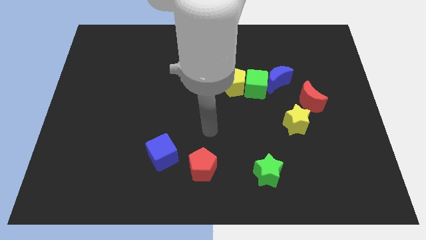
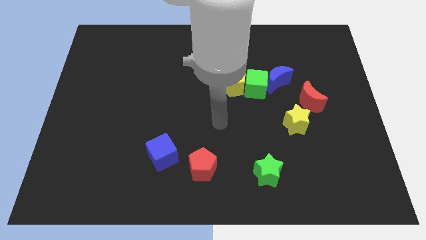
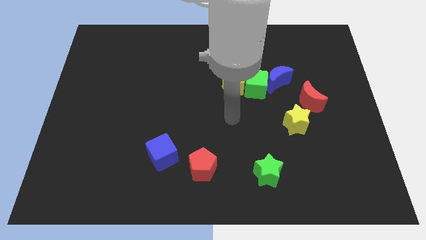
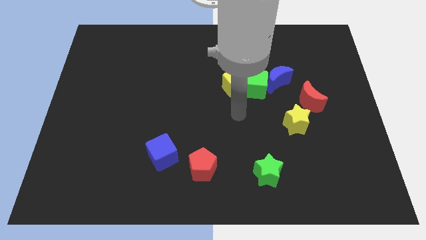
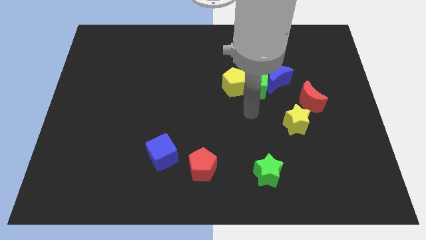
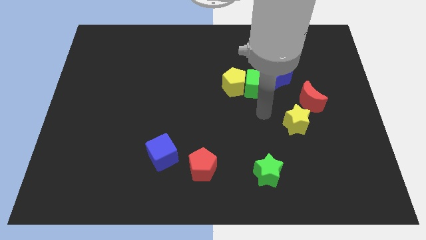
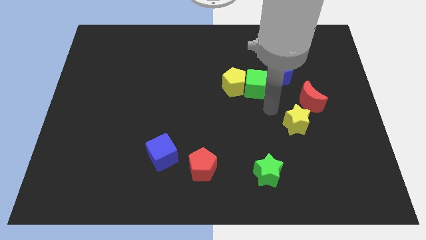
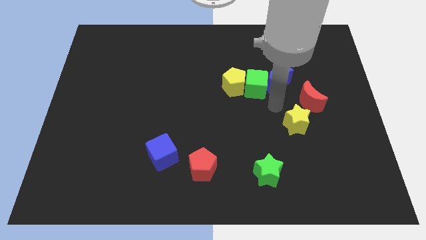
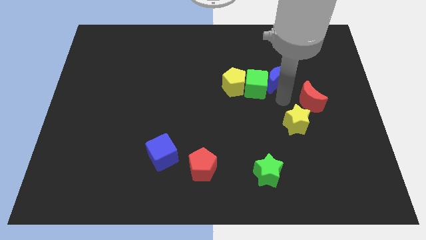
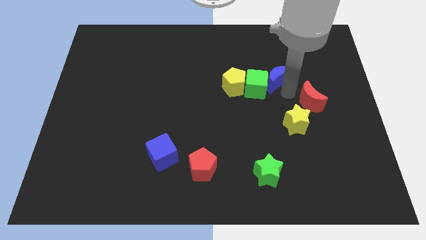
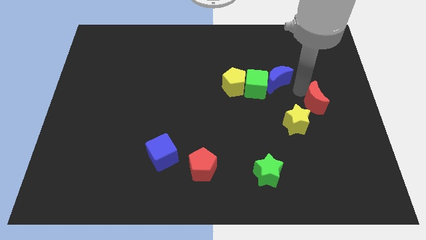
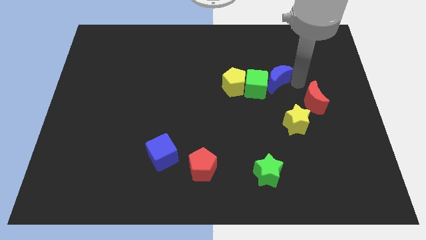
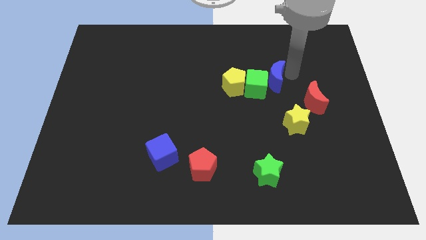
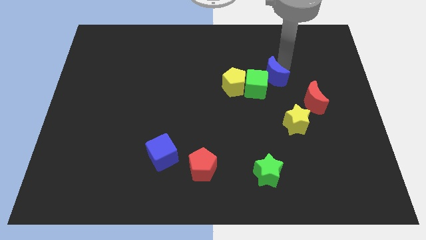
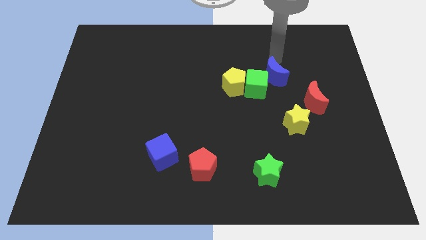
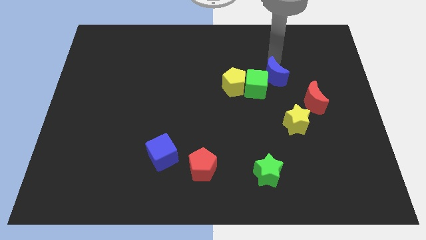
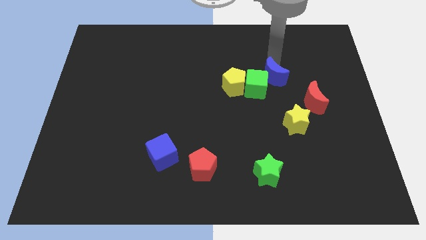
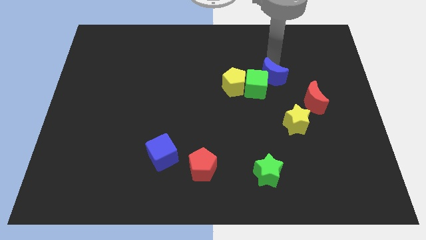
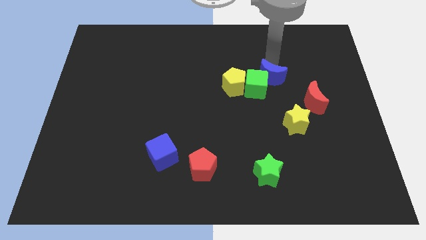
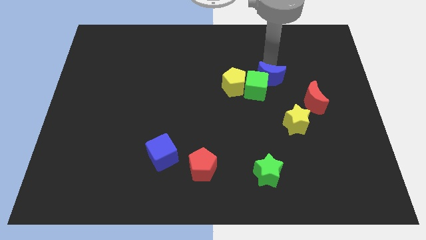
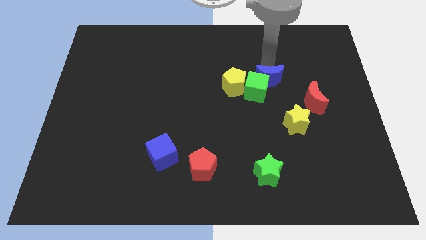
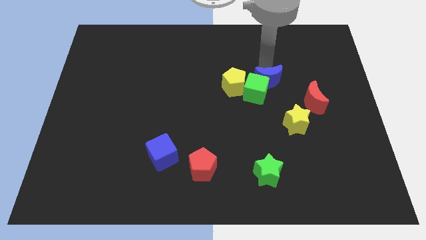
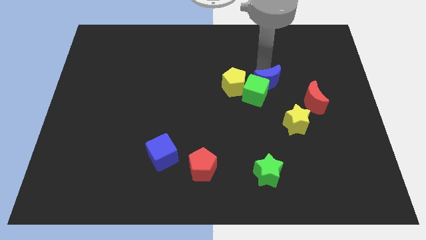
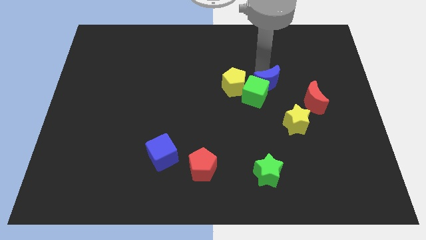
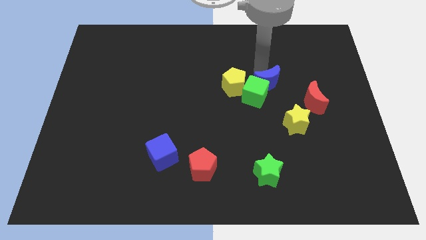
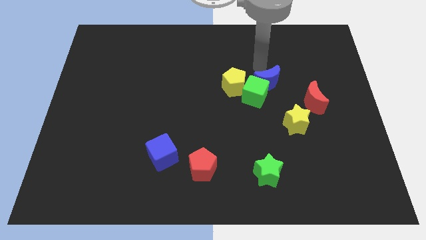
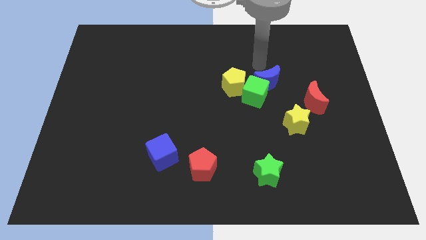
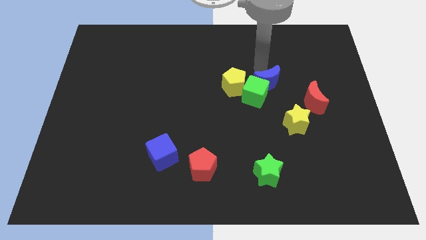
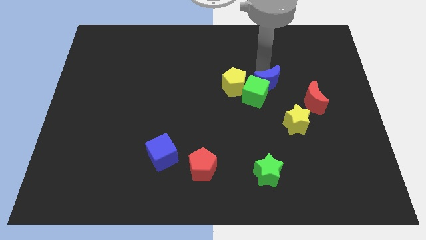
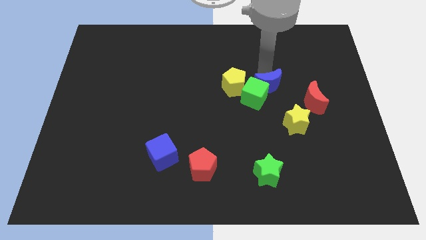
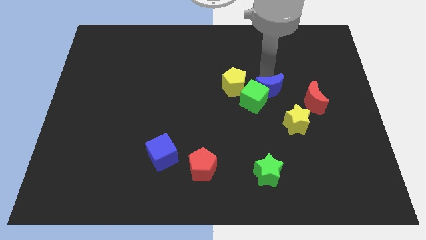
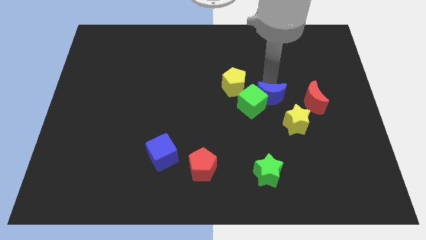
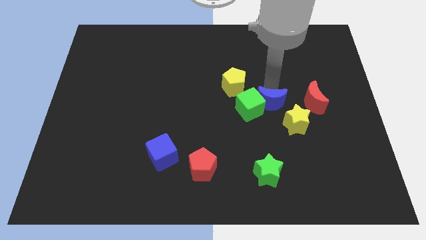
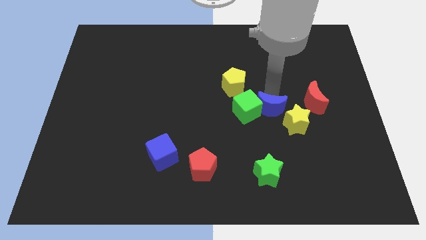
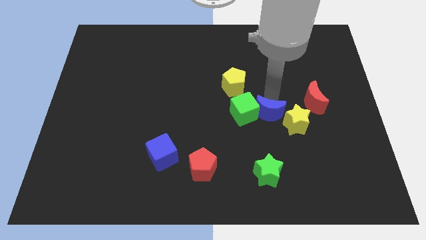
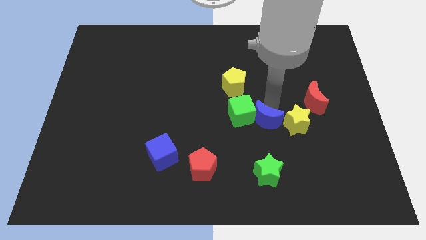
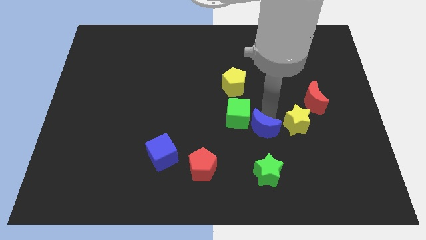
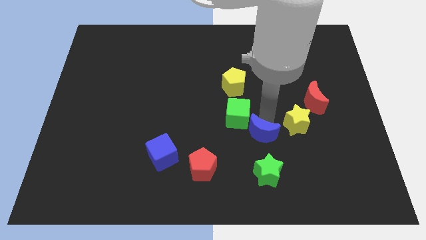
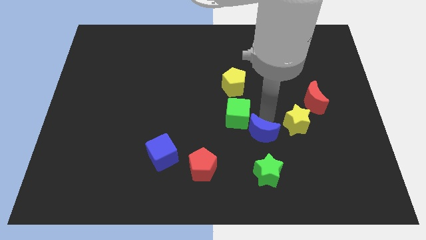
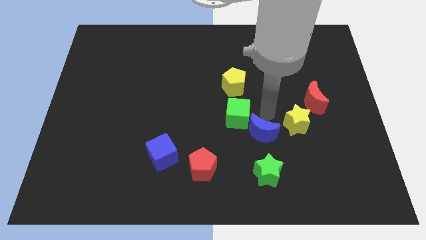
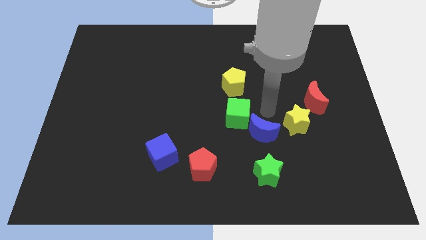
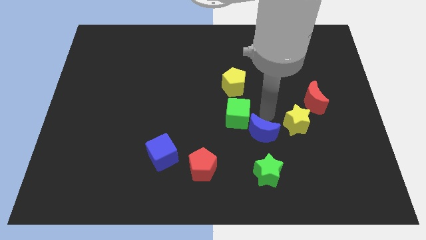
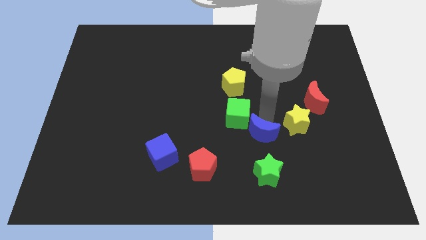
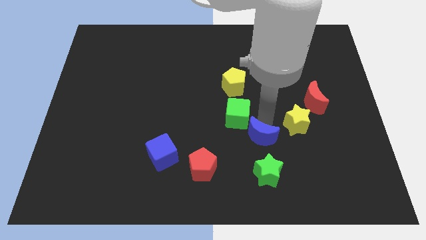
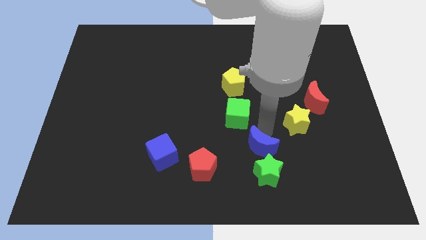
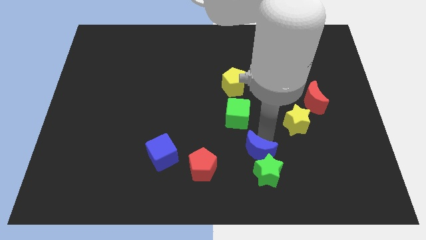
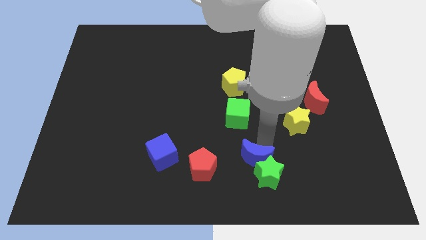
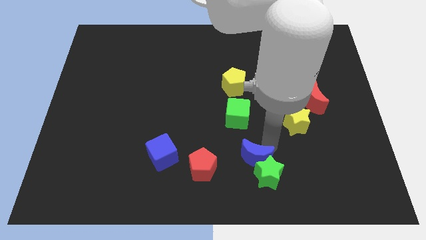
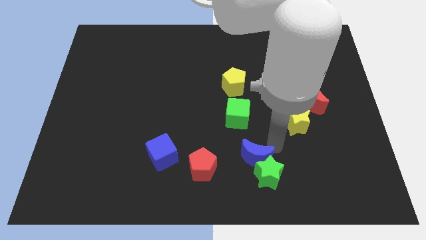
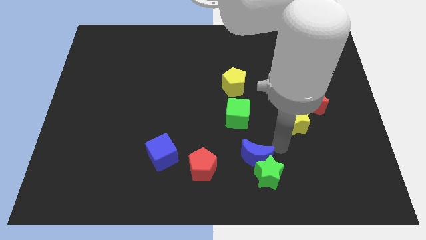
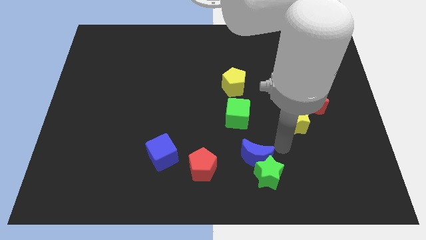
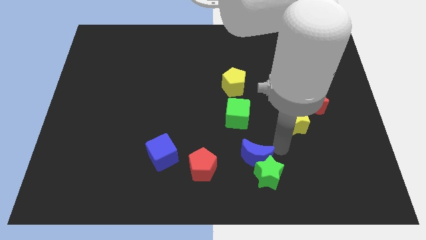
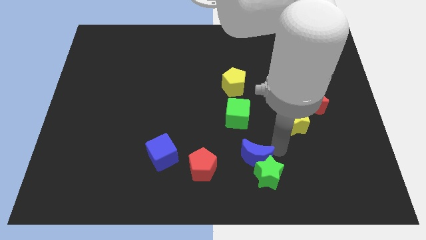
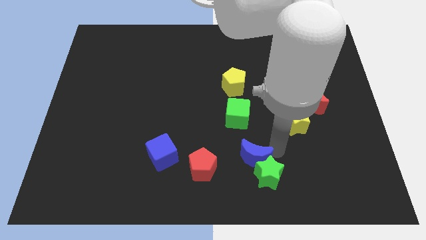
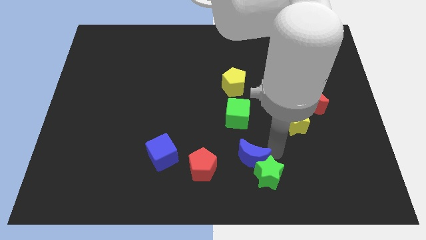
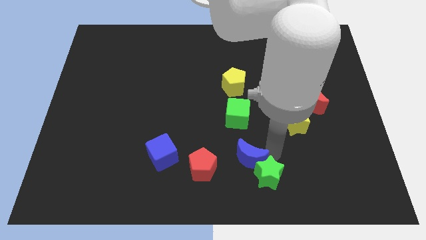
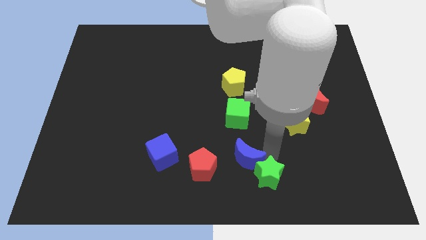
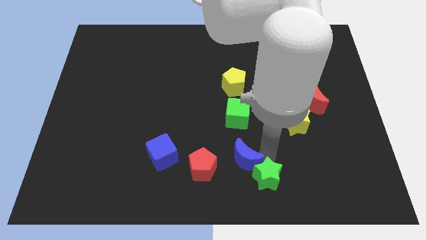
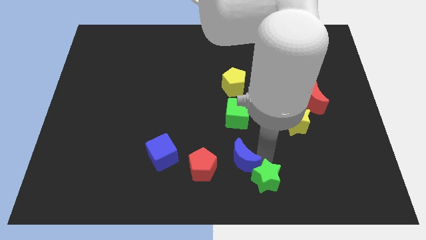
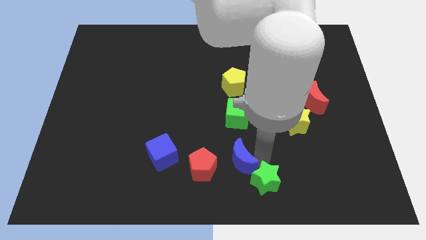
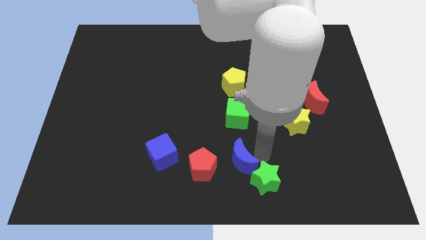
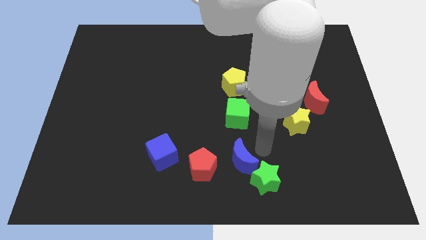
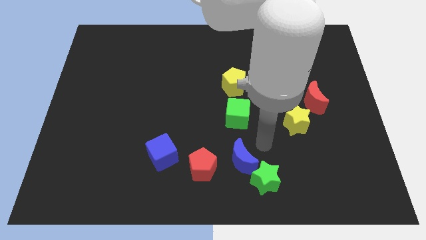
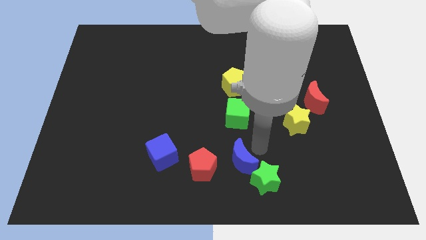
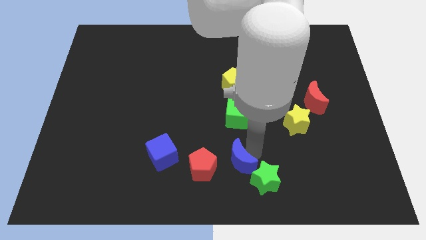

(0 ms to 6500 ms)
move the blue moon down and left

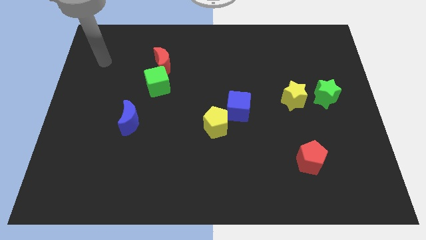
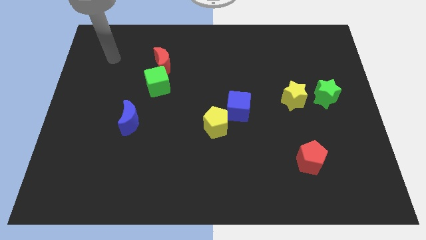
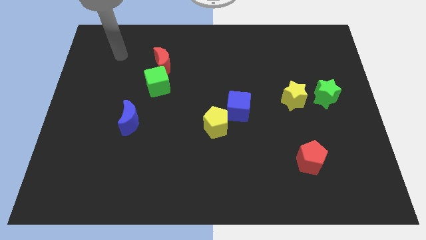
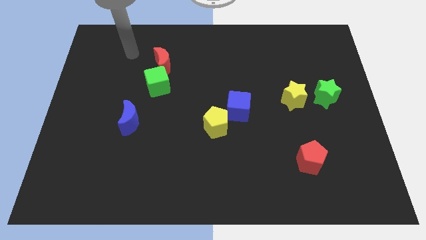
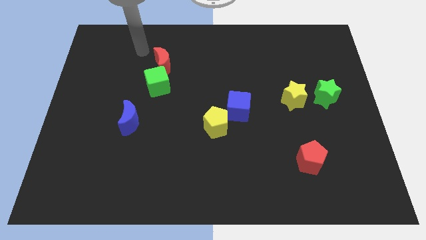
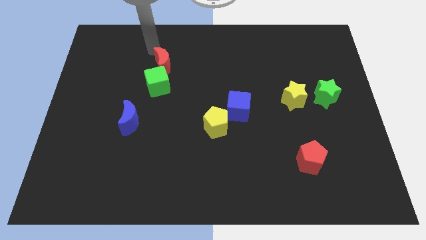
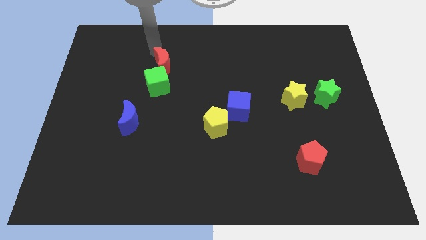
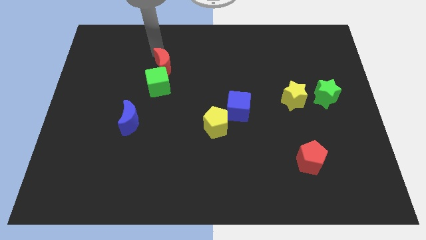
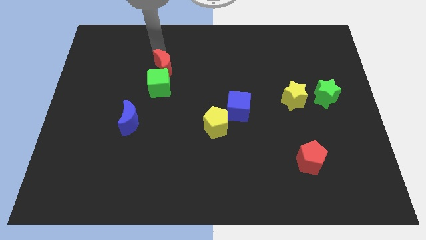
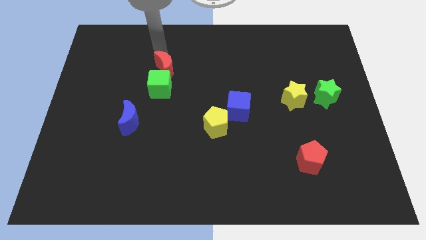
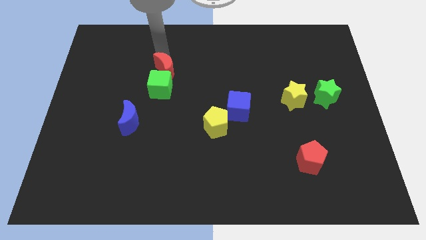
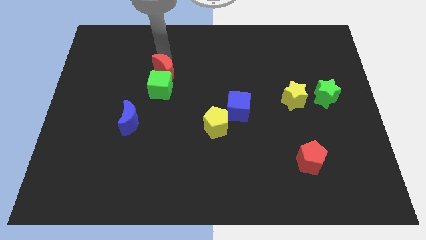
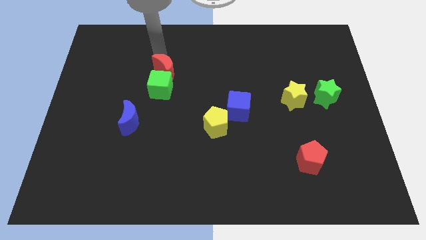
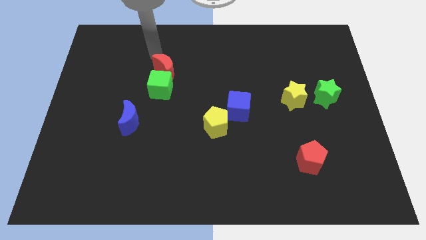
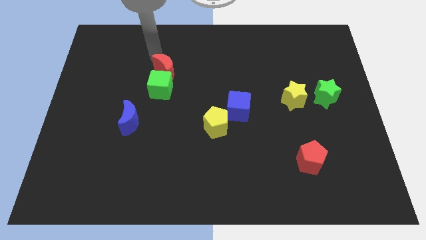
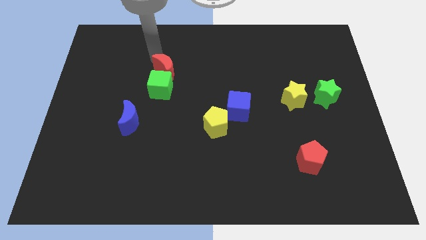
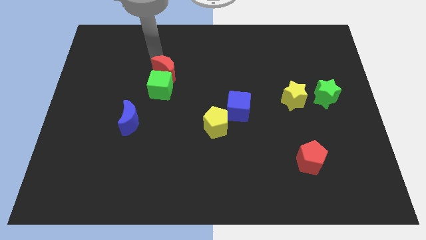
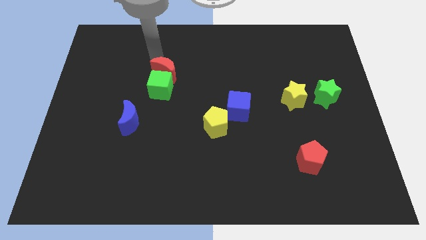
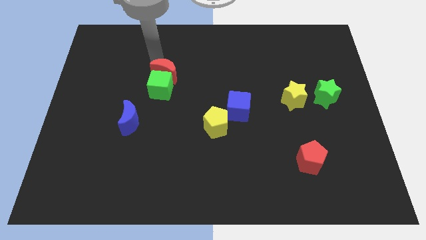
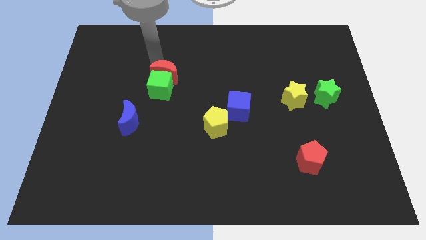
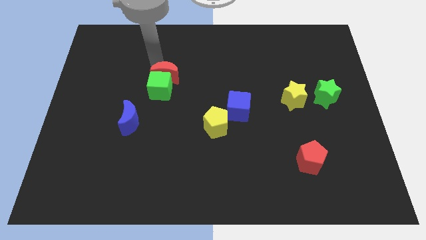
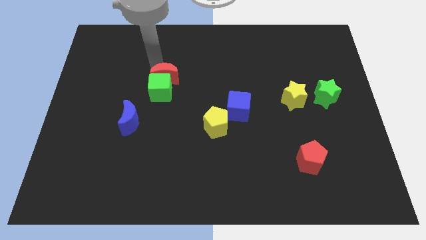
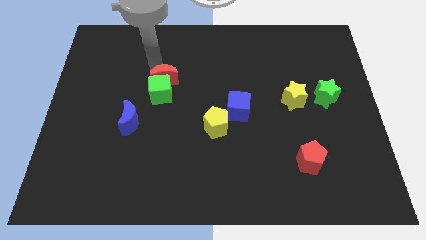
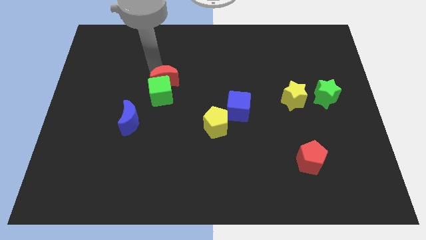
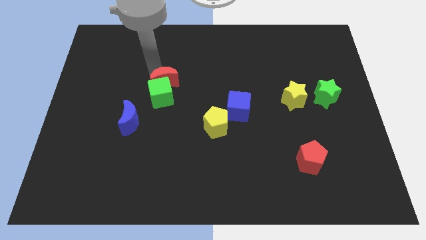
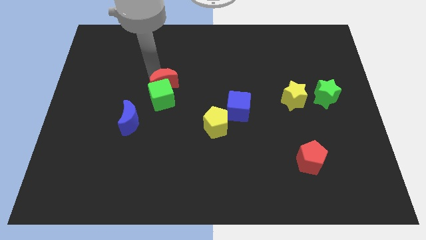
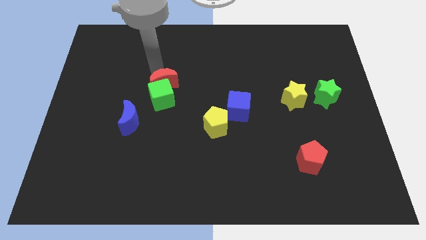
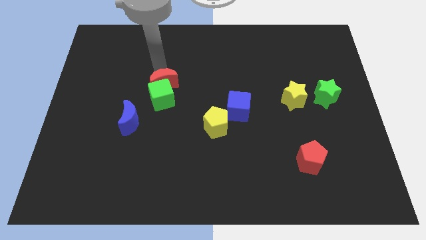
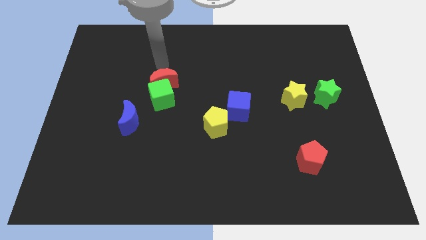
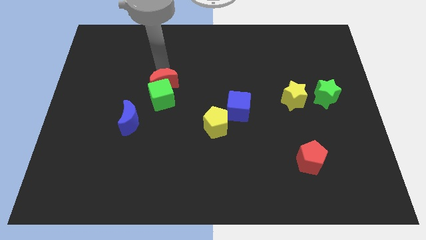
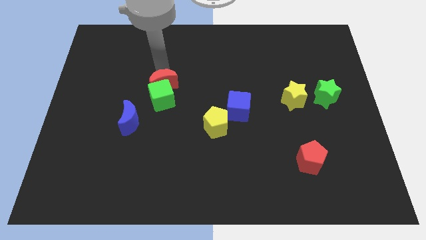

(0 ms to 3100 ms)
push the red moon a little downwards
